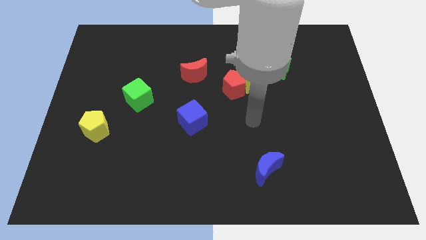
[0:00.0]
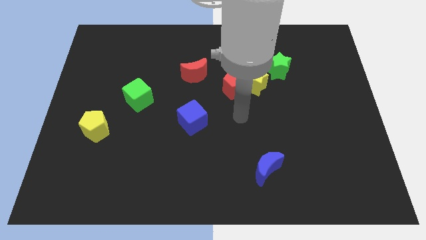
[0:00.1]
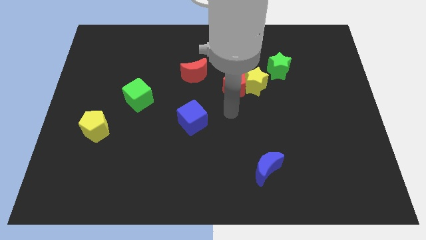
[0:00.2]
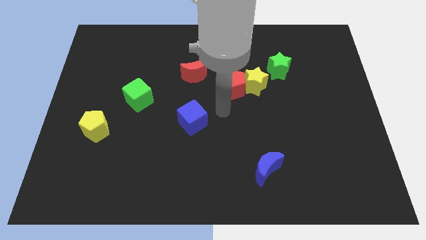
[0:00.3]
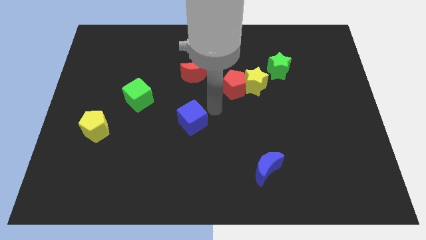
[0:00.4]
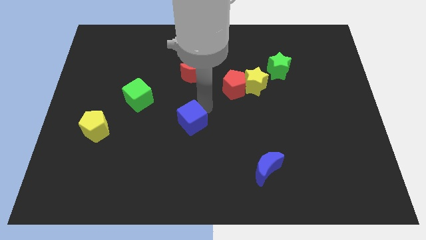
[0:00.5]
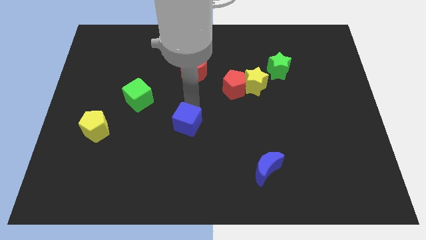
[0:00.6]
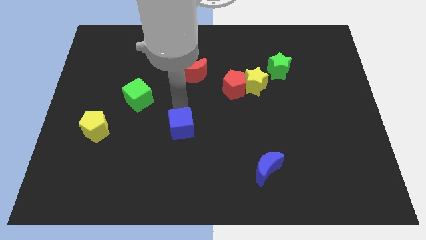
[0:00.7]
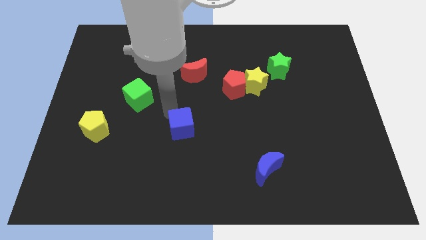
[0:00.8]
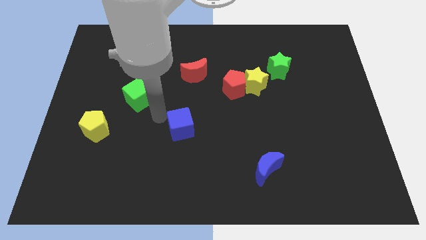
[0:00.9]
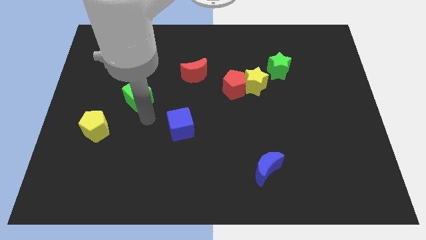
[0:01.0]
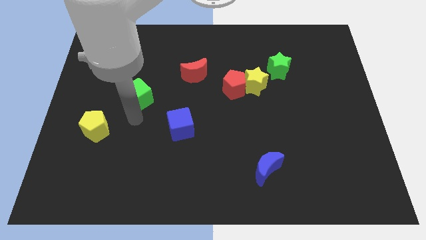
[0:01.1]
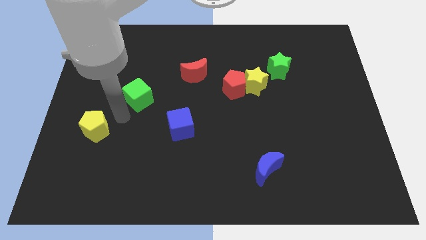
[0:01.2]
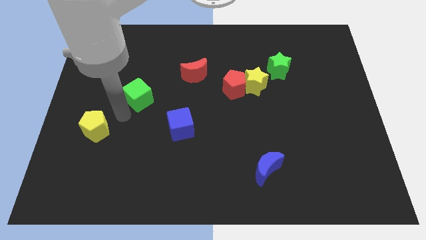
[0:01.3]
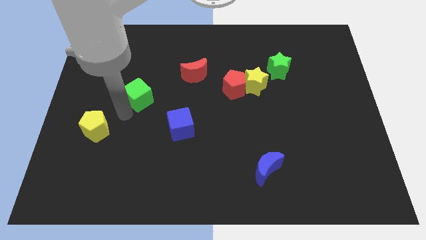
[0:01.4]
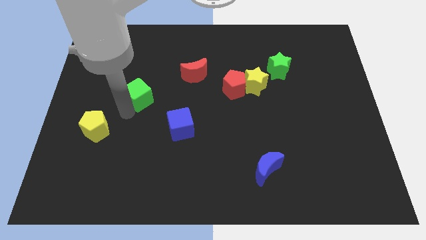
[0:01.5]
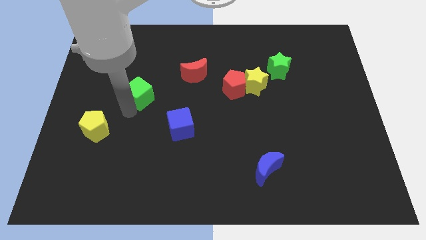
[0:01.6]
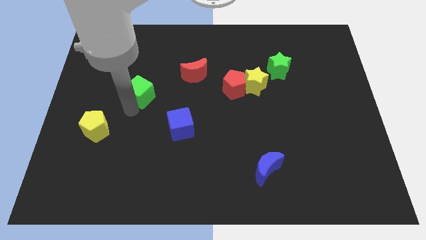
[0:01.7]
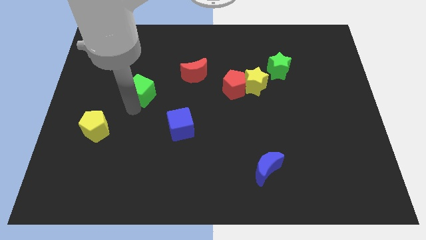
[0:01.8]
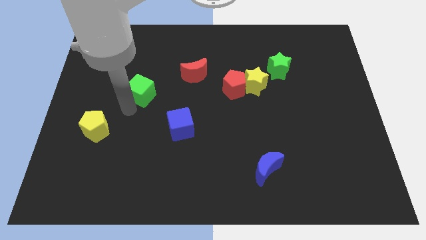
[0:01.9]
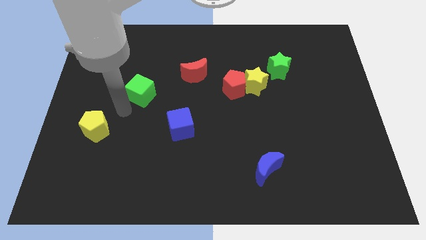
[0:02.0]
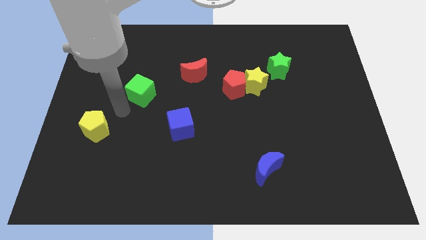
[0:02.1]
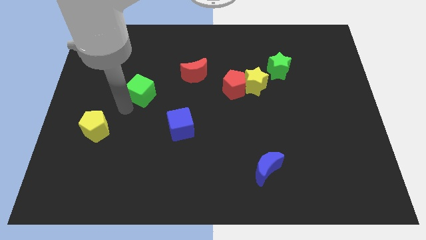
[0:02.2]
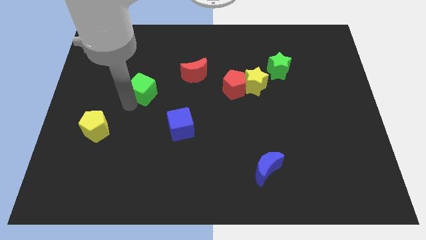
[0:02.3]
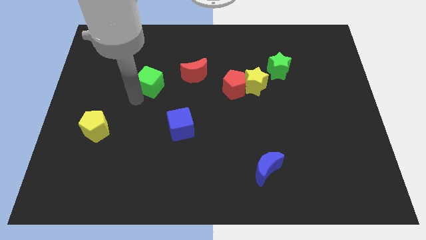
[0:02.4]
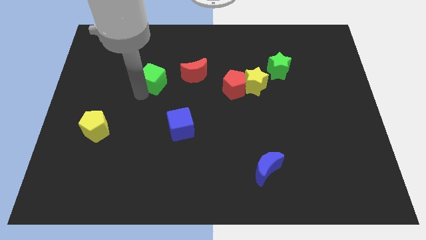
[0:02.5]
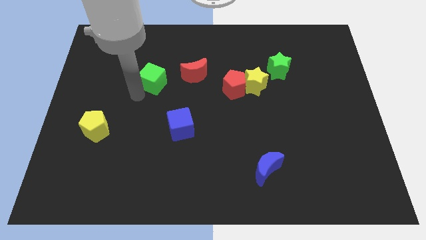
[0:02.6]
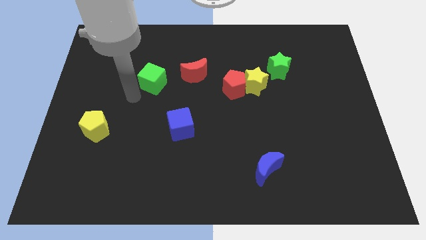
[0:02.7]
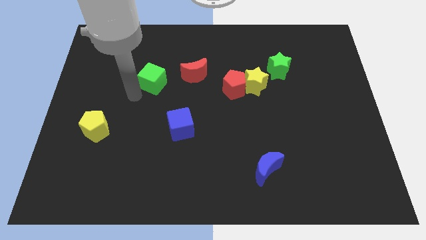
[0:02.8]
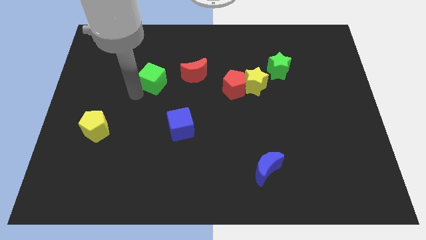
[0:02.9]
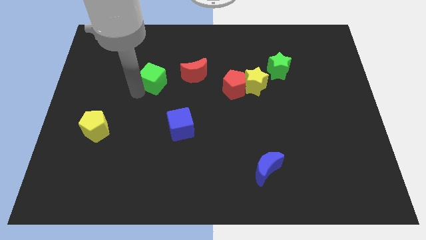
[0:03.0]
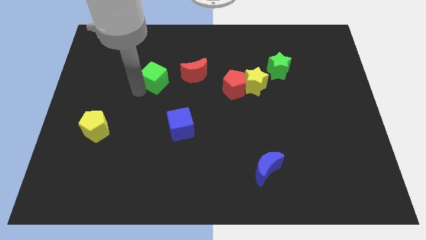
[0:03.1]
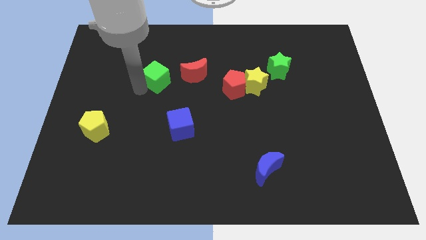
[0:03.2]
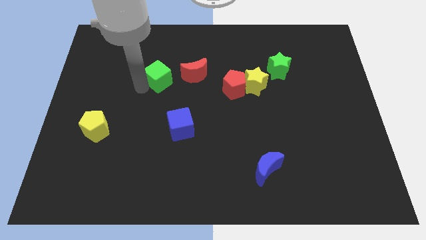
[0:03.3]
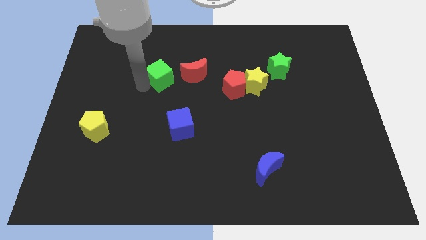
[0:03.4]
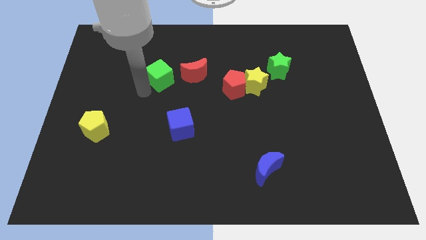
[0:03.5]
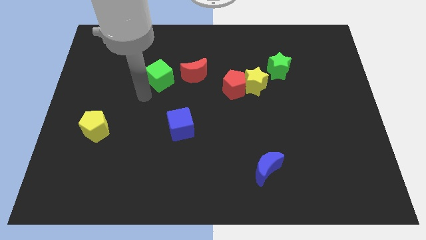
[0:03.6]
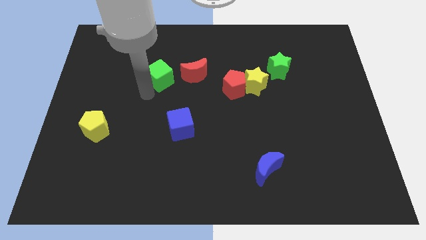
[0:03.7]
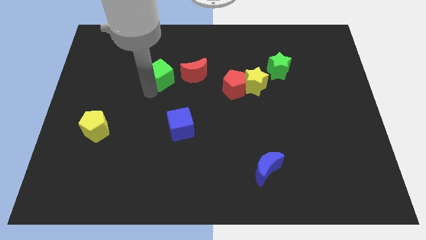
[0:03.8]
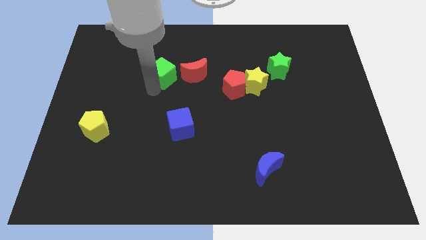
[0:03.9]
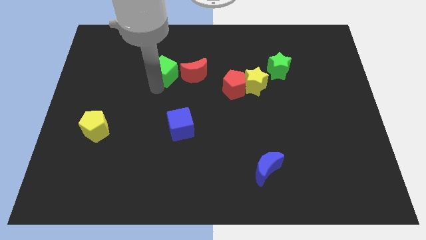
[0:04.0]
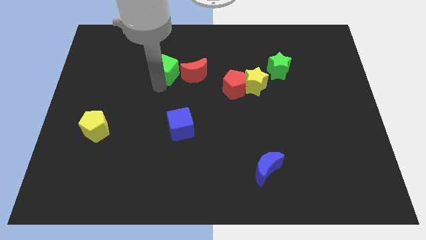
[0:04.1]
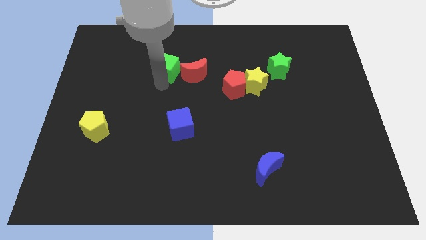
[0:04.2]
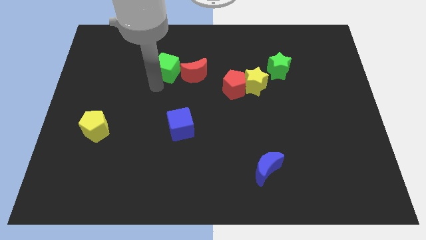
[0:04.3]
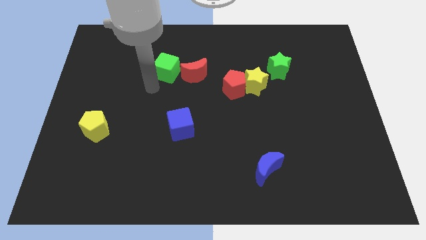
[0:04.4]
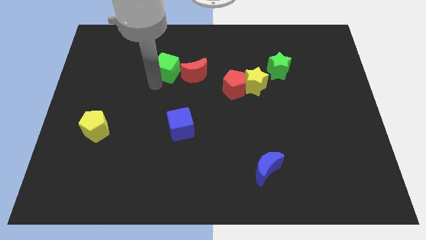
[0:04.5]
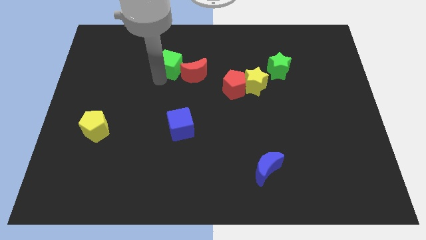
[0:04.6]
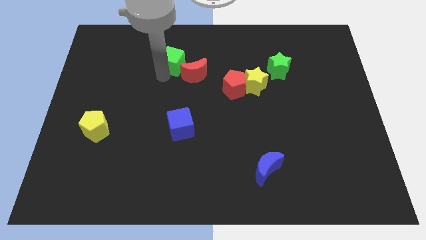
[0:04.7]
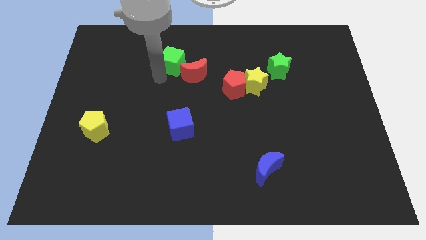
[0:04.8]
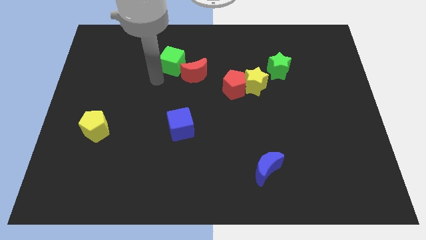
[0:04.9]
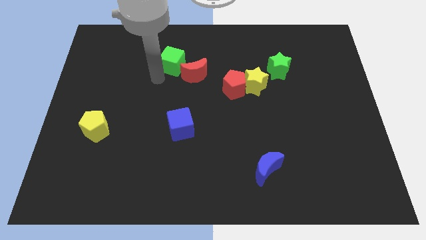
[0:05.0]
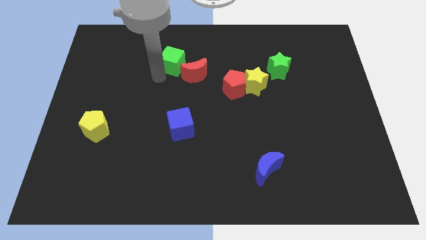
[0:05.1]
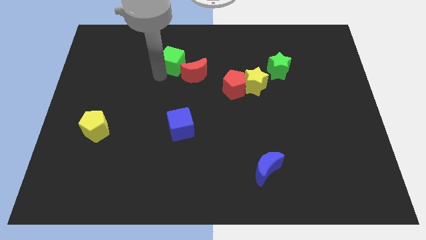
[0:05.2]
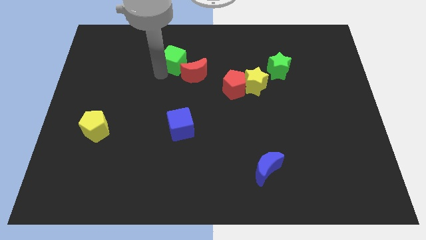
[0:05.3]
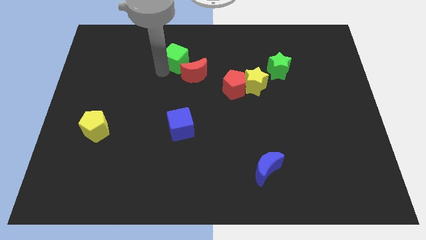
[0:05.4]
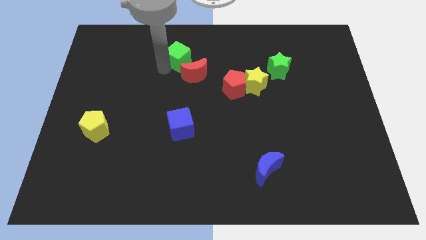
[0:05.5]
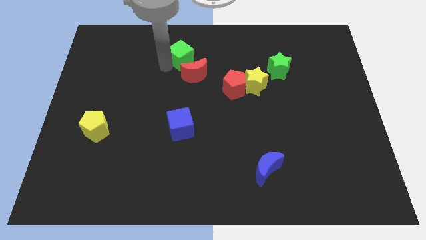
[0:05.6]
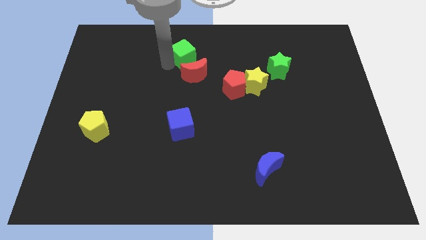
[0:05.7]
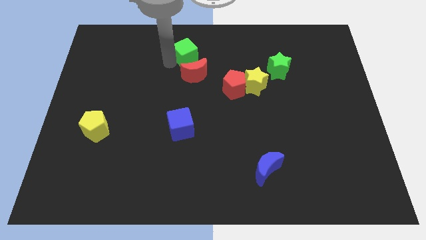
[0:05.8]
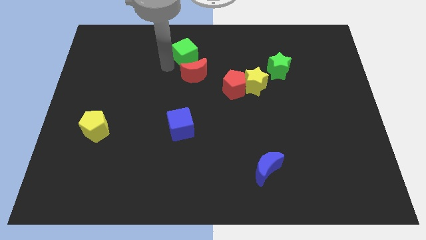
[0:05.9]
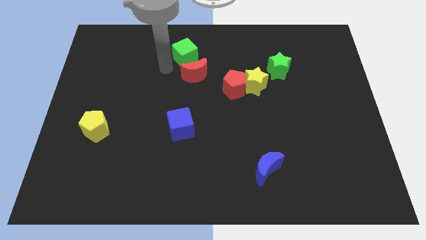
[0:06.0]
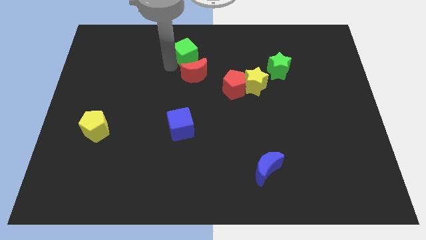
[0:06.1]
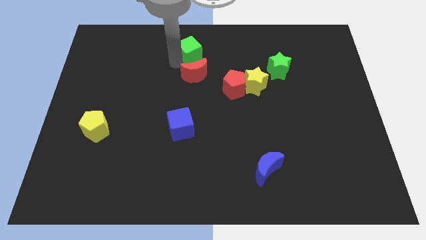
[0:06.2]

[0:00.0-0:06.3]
slide the green cube to the top side
